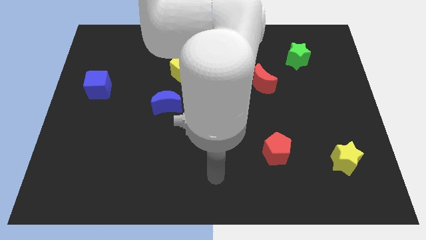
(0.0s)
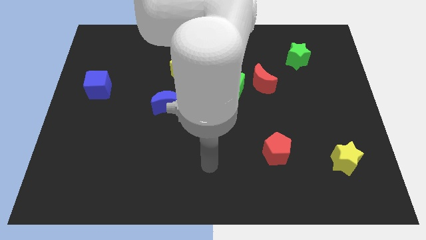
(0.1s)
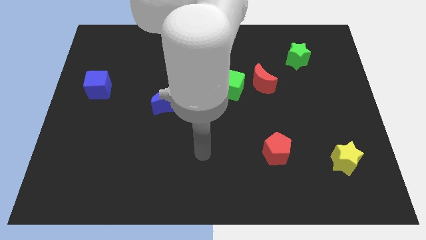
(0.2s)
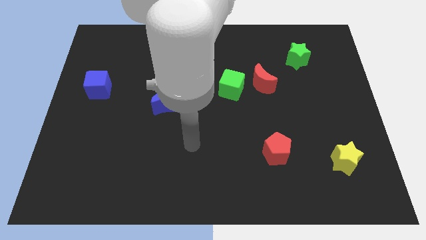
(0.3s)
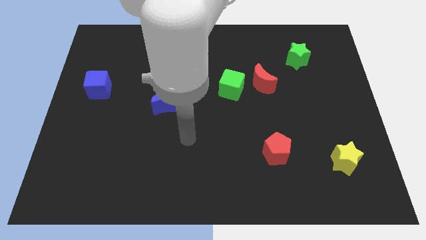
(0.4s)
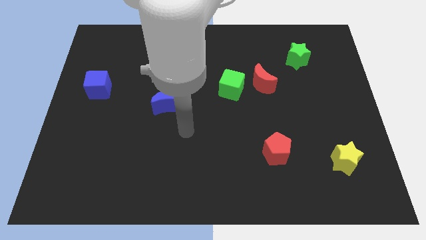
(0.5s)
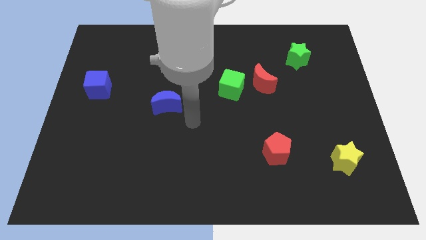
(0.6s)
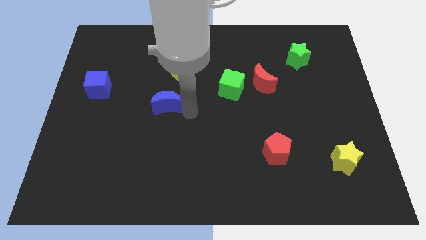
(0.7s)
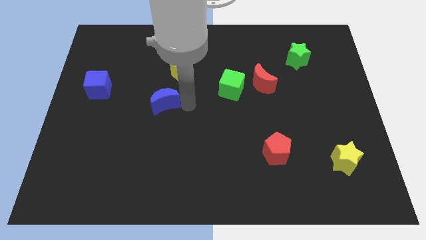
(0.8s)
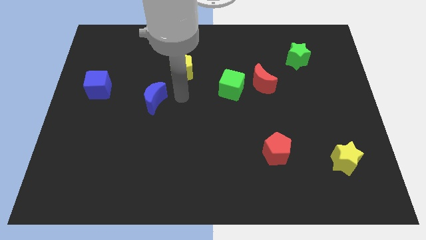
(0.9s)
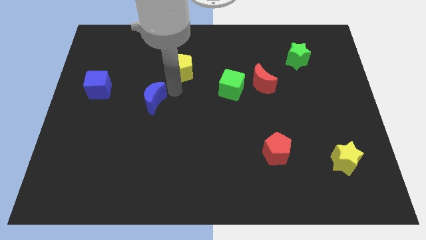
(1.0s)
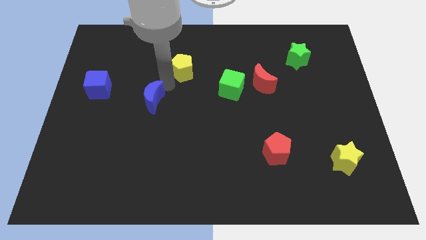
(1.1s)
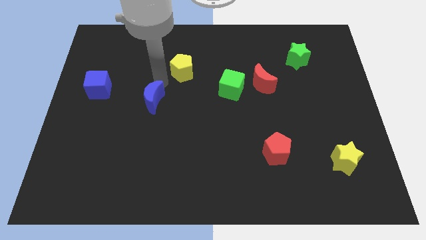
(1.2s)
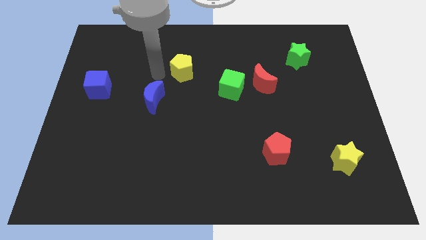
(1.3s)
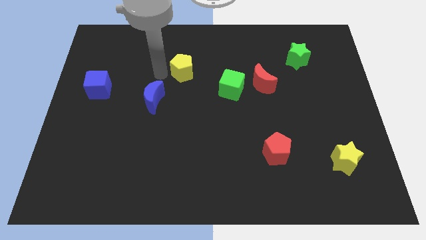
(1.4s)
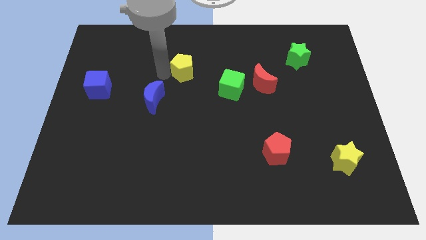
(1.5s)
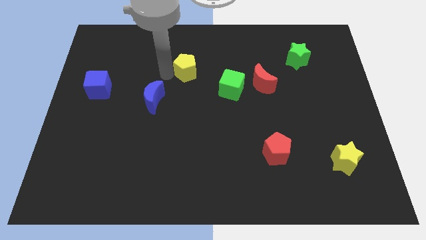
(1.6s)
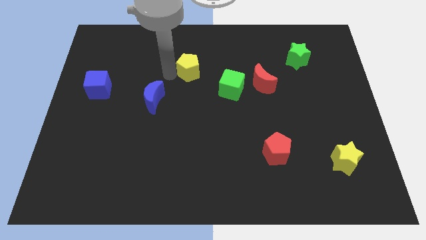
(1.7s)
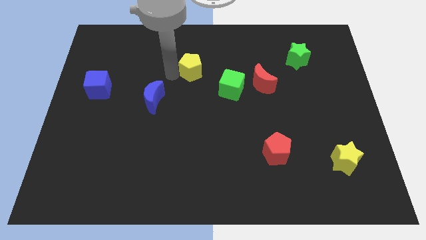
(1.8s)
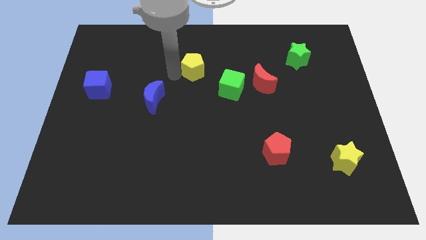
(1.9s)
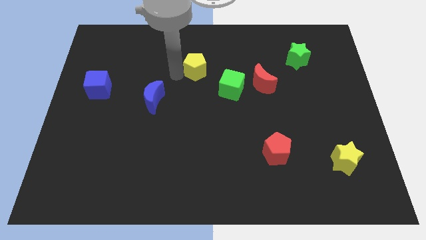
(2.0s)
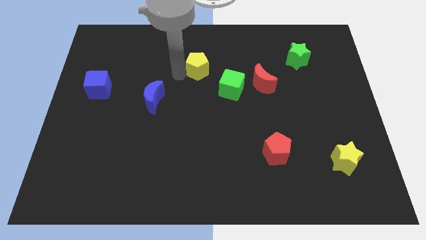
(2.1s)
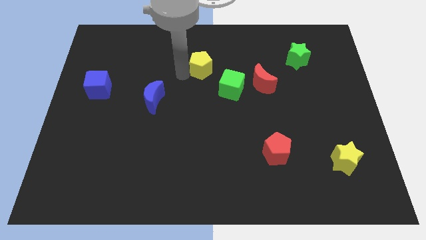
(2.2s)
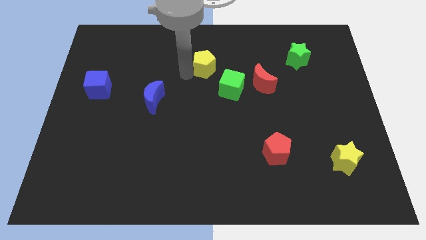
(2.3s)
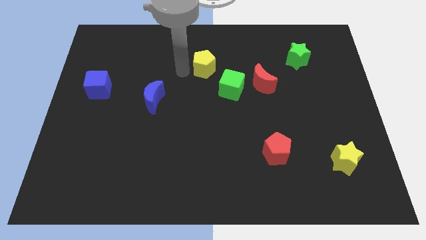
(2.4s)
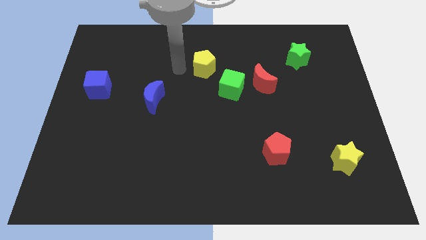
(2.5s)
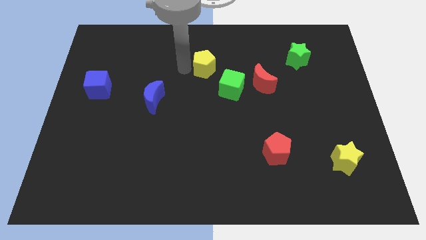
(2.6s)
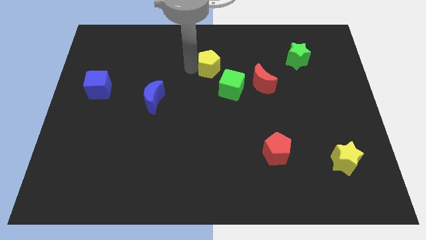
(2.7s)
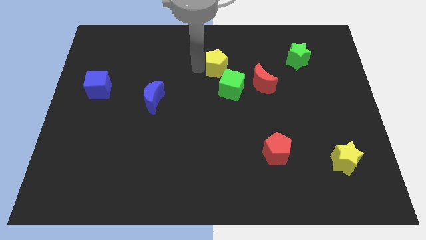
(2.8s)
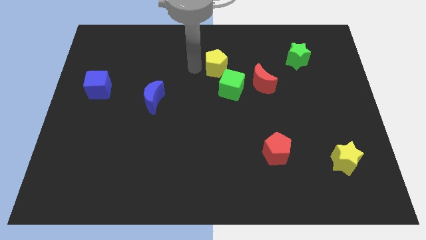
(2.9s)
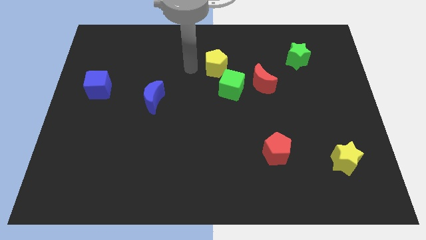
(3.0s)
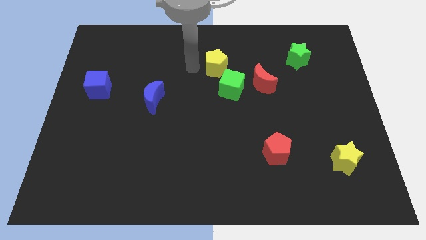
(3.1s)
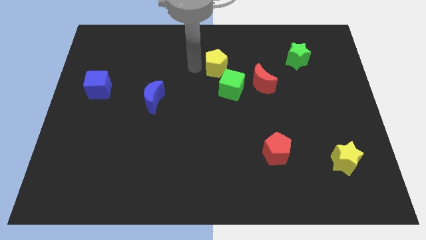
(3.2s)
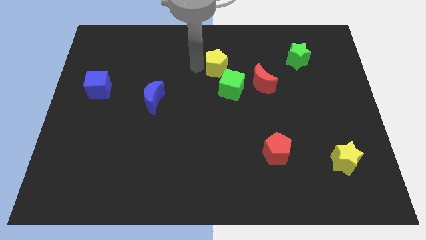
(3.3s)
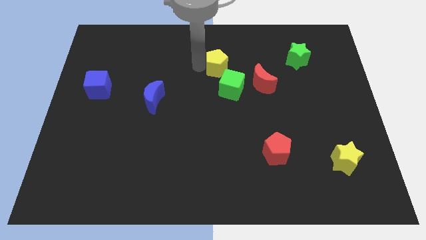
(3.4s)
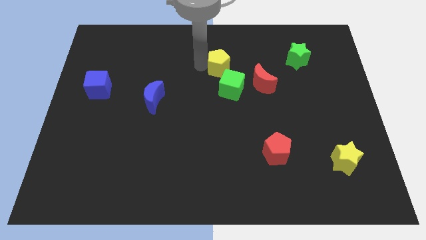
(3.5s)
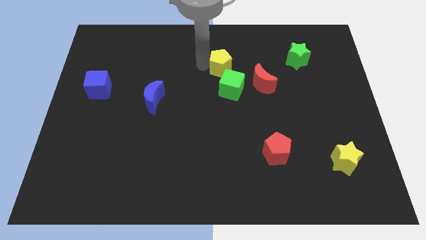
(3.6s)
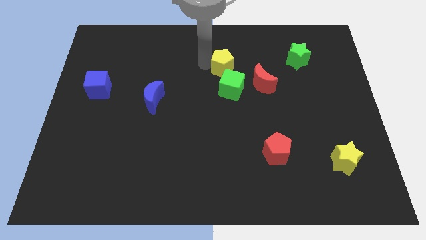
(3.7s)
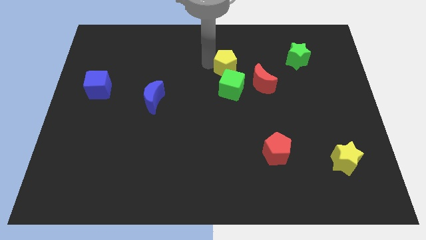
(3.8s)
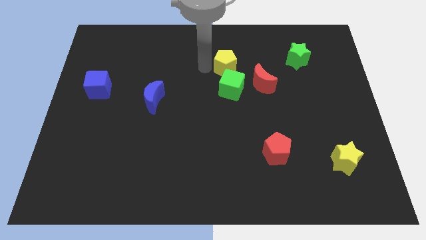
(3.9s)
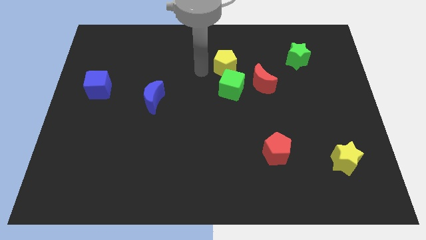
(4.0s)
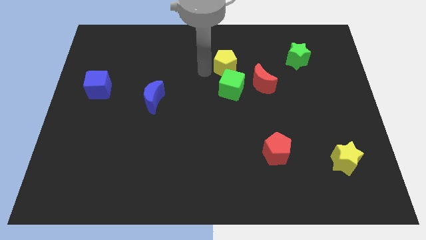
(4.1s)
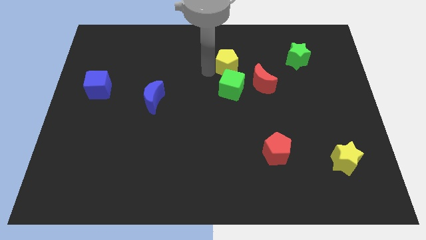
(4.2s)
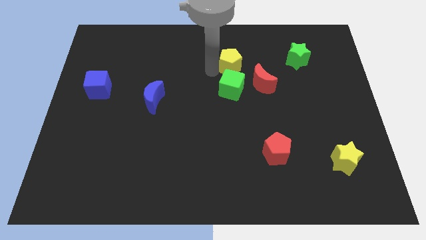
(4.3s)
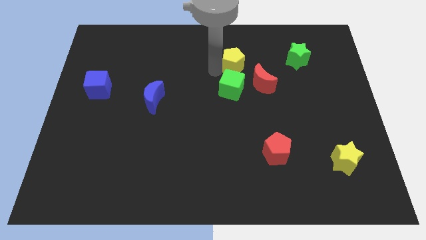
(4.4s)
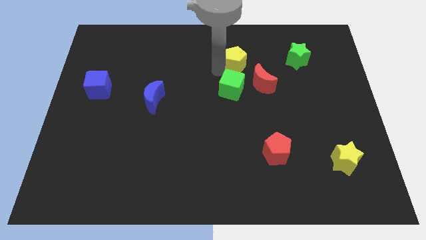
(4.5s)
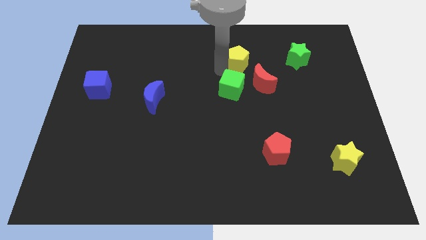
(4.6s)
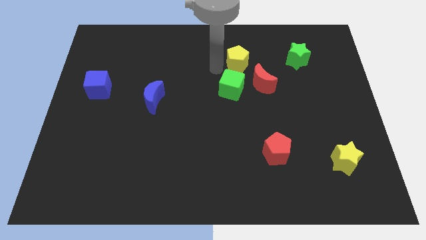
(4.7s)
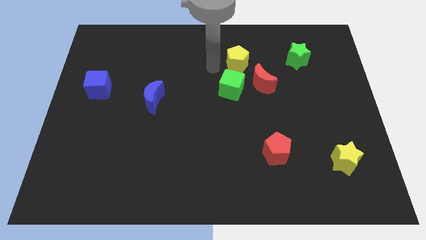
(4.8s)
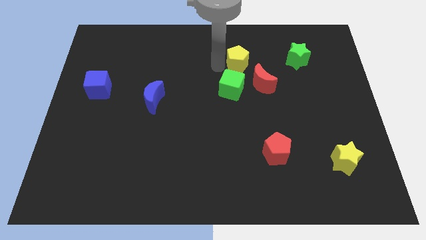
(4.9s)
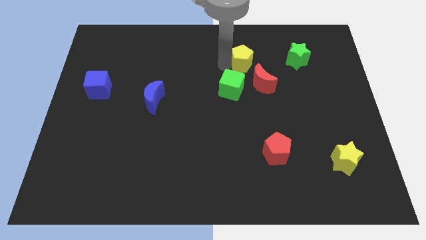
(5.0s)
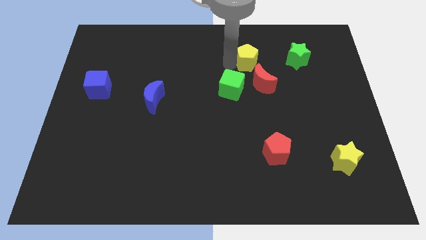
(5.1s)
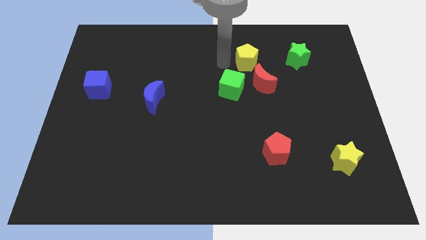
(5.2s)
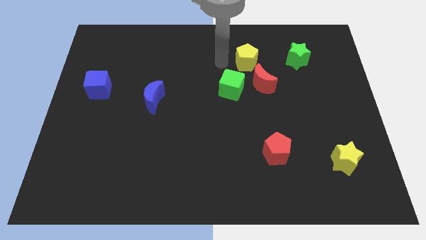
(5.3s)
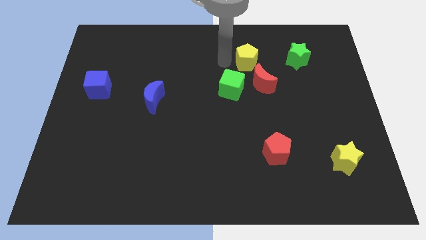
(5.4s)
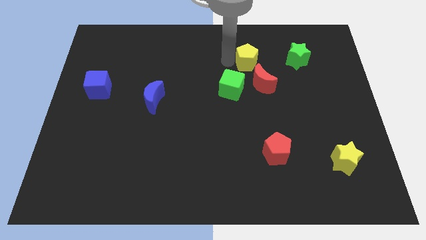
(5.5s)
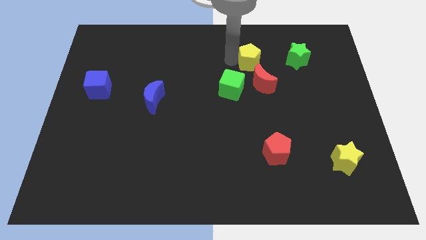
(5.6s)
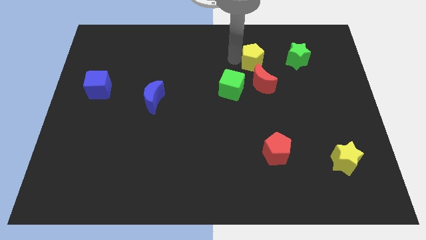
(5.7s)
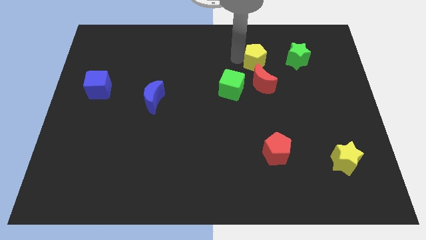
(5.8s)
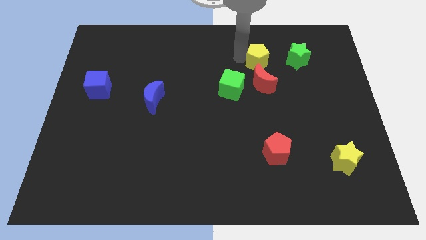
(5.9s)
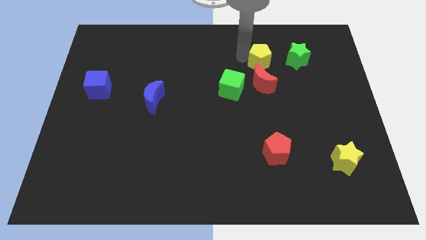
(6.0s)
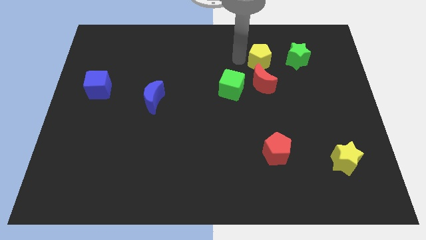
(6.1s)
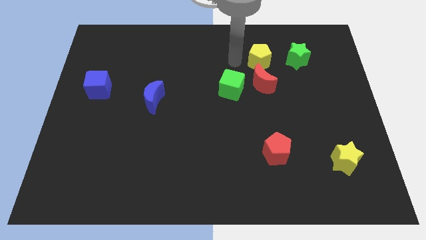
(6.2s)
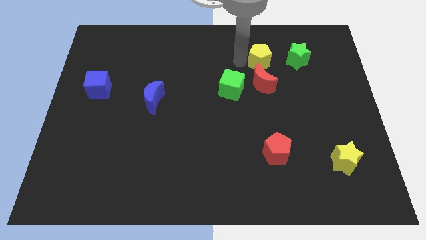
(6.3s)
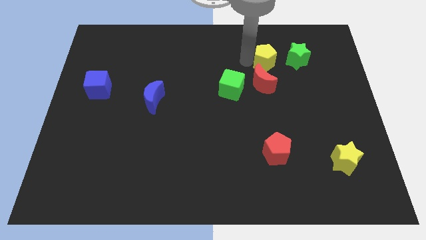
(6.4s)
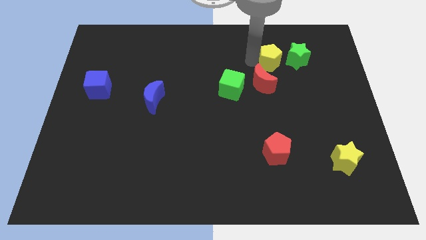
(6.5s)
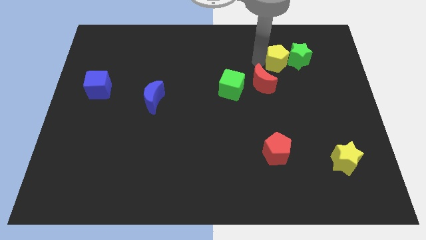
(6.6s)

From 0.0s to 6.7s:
push the yellow pentagon towards the green star
